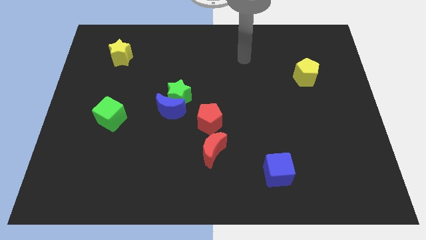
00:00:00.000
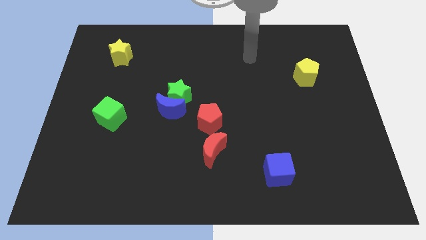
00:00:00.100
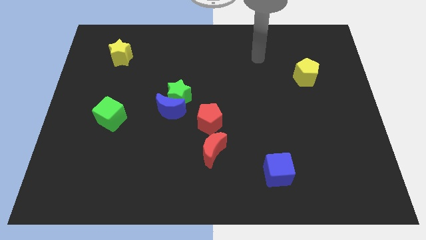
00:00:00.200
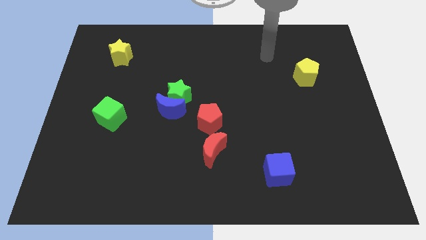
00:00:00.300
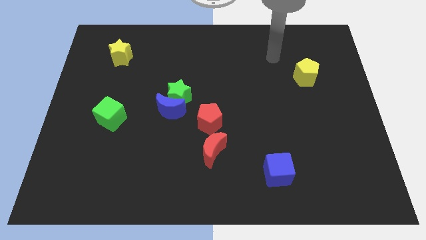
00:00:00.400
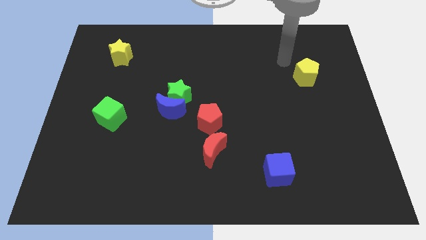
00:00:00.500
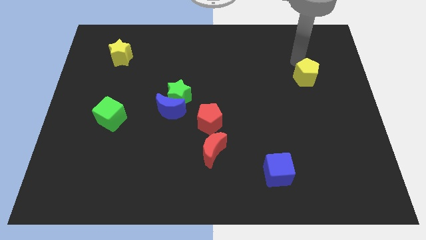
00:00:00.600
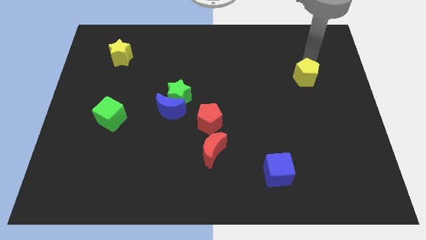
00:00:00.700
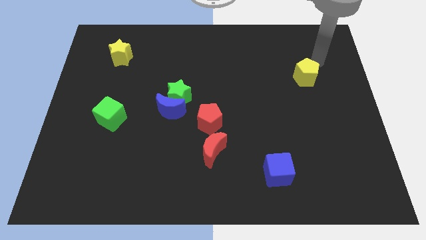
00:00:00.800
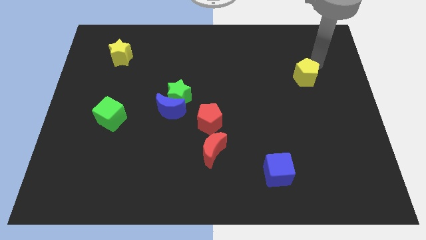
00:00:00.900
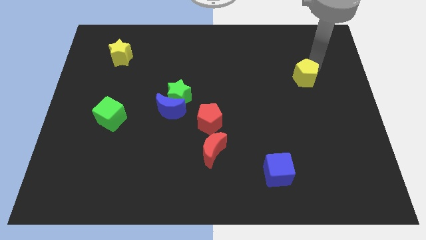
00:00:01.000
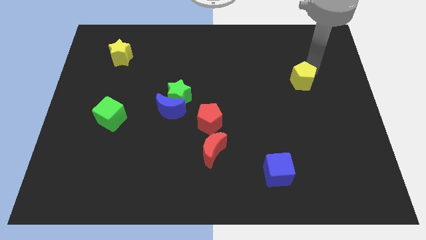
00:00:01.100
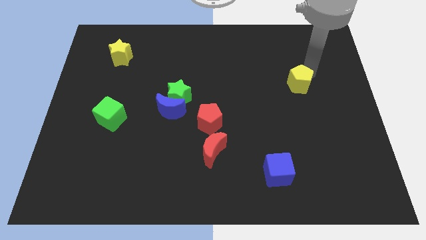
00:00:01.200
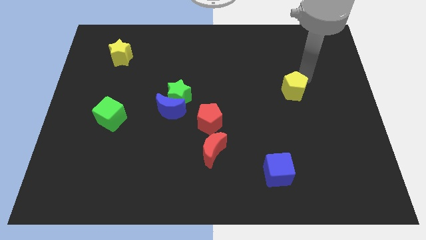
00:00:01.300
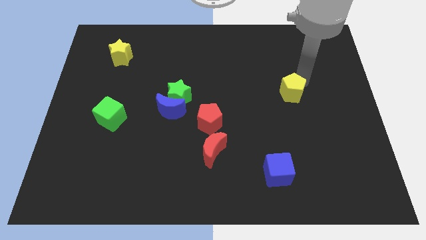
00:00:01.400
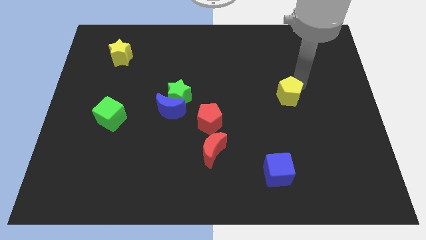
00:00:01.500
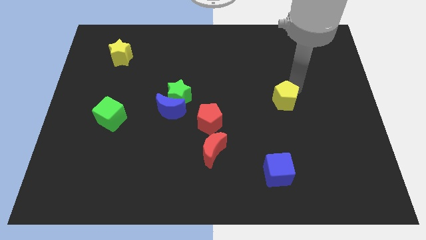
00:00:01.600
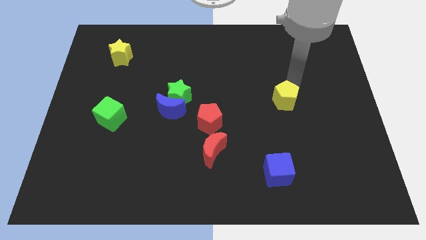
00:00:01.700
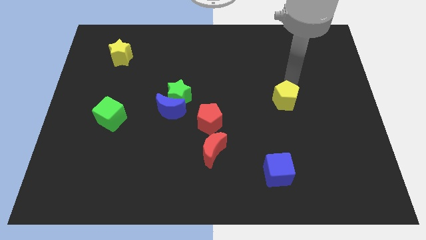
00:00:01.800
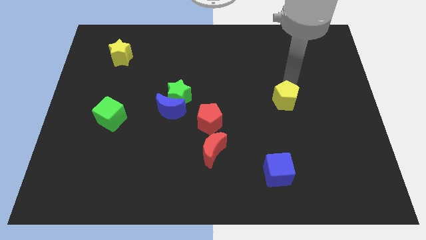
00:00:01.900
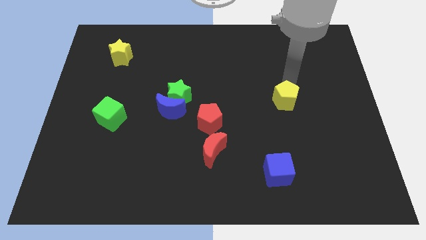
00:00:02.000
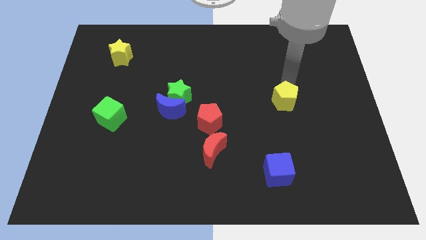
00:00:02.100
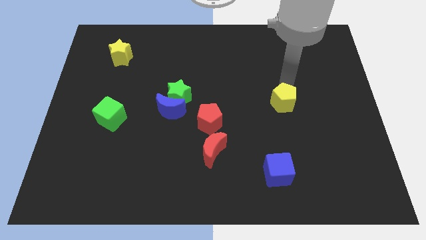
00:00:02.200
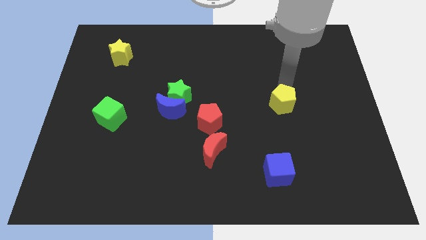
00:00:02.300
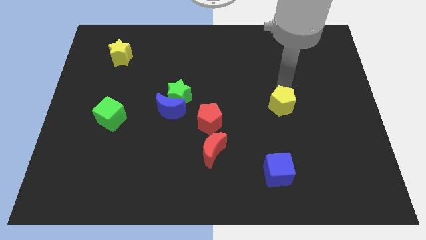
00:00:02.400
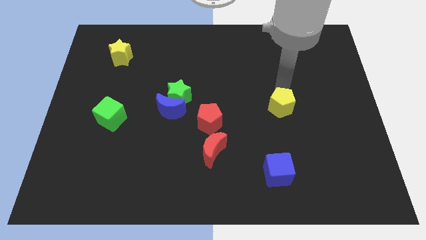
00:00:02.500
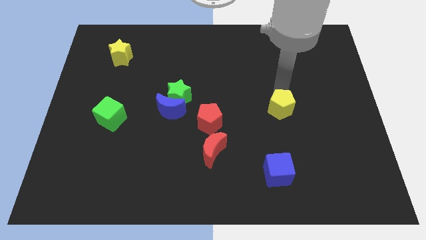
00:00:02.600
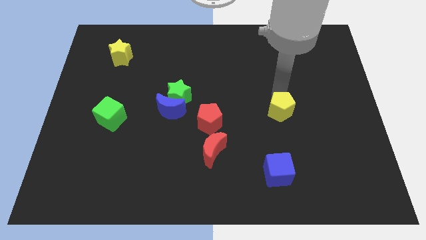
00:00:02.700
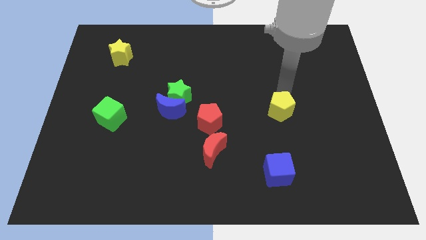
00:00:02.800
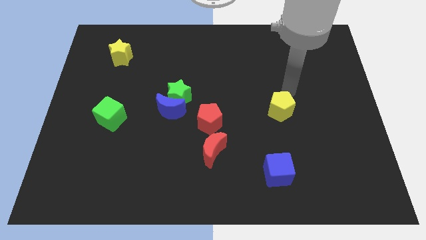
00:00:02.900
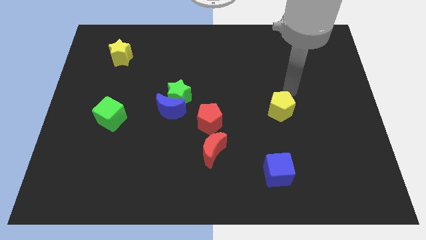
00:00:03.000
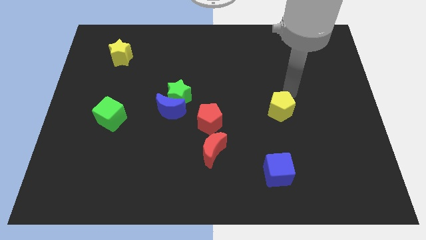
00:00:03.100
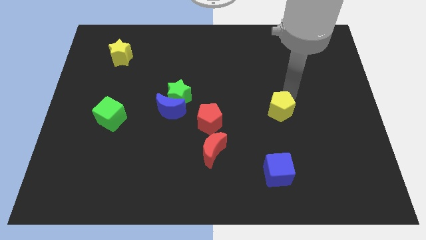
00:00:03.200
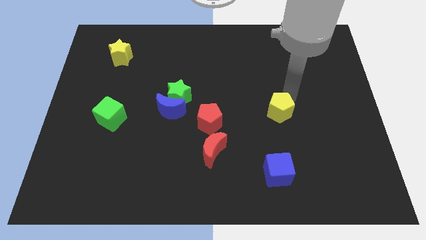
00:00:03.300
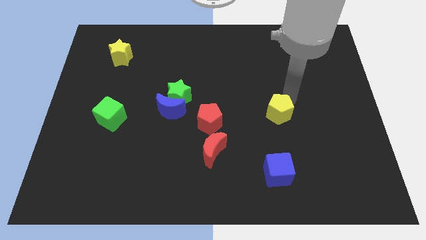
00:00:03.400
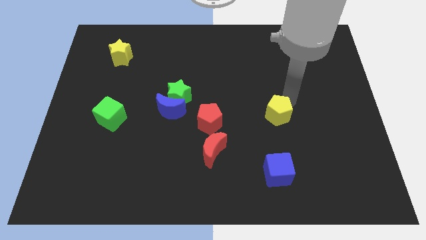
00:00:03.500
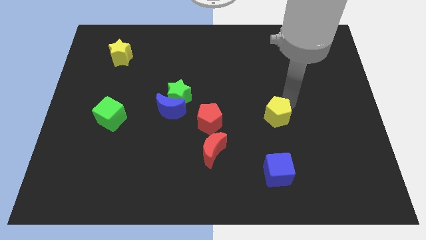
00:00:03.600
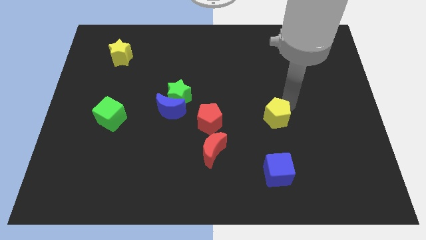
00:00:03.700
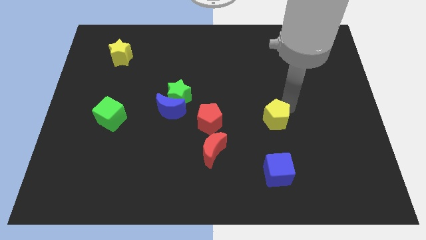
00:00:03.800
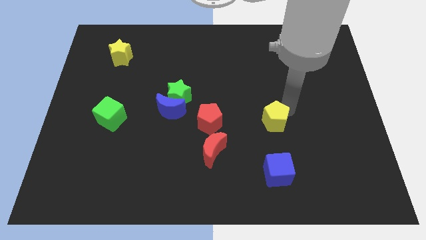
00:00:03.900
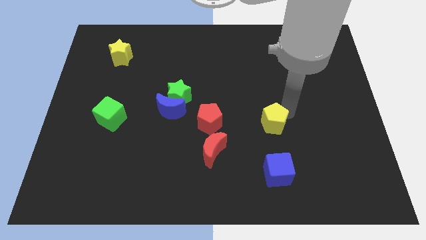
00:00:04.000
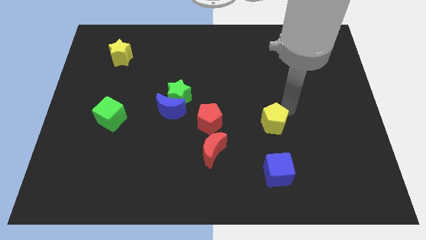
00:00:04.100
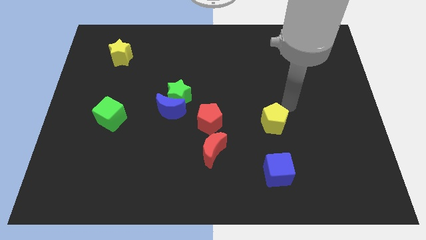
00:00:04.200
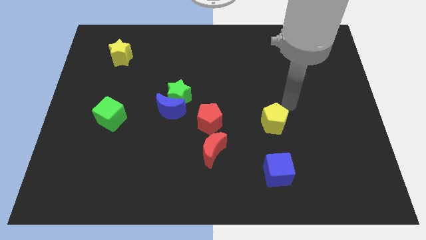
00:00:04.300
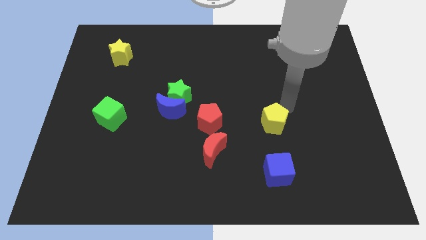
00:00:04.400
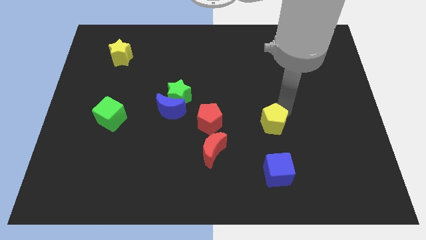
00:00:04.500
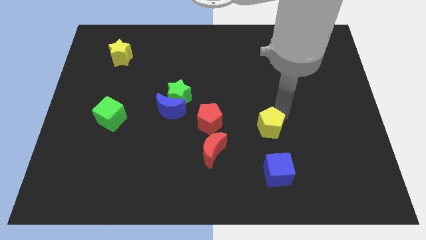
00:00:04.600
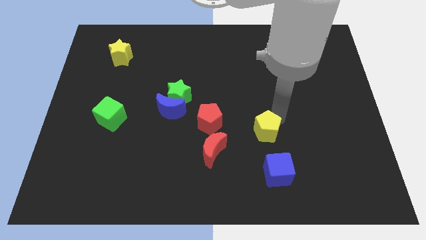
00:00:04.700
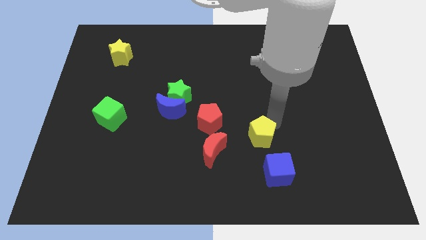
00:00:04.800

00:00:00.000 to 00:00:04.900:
push the yellow pentagon to the top left of the blue cube

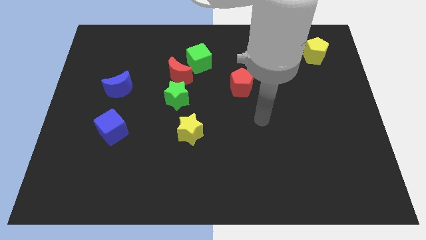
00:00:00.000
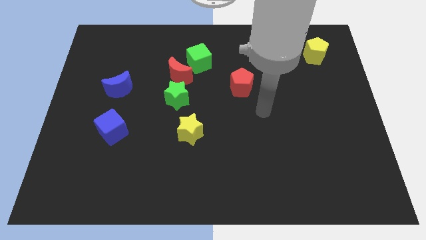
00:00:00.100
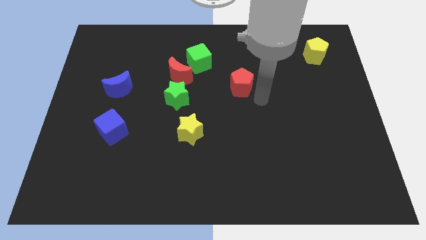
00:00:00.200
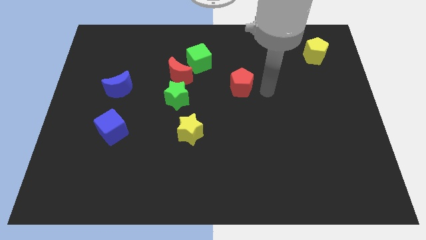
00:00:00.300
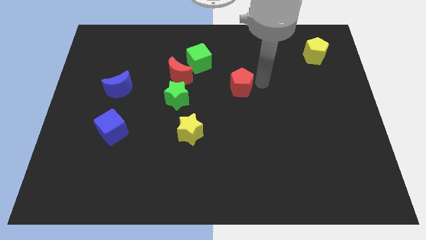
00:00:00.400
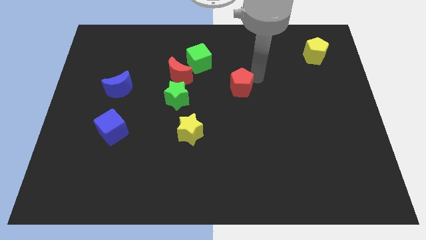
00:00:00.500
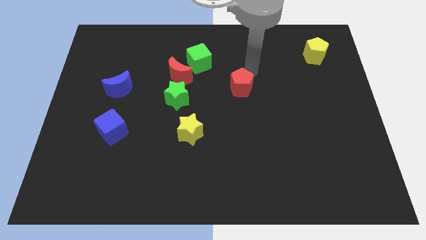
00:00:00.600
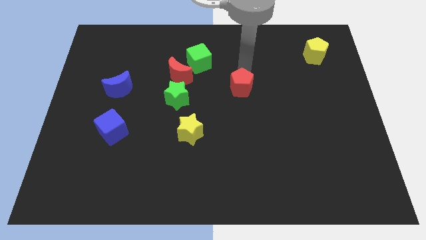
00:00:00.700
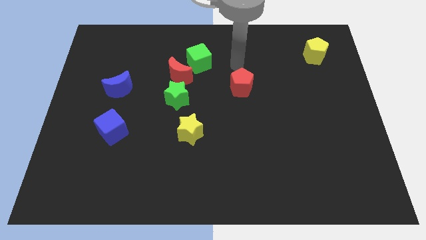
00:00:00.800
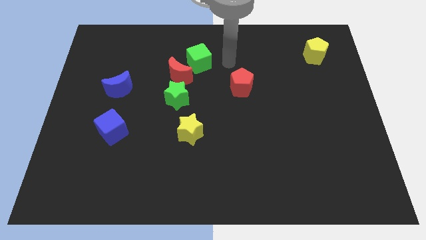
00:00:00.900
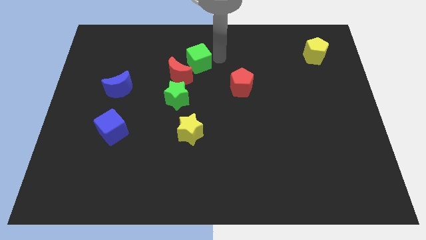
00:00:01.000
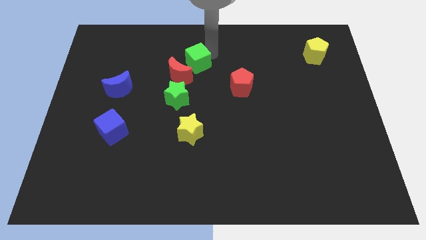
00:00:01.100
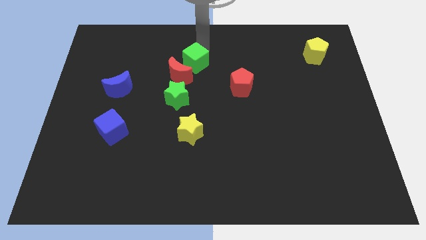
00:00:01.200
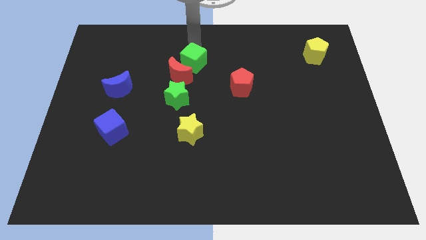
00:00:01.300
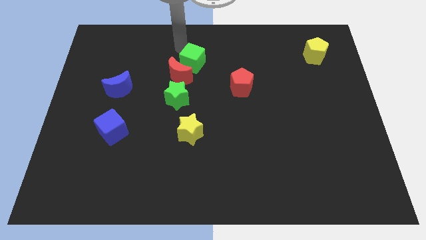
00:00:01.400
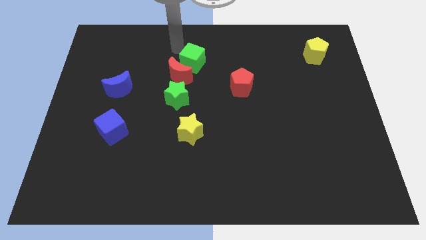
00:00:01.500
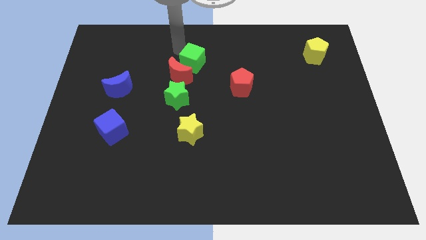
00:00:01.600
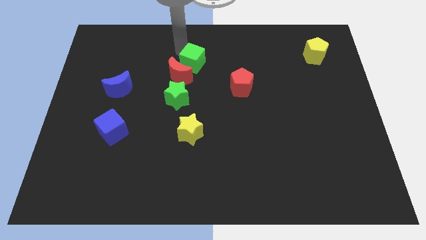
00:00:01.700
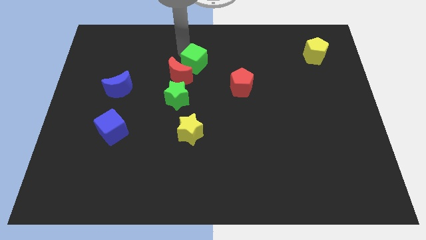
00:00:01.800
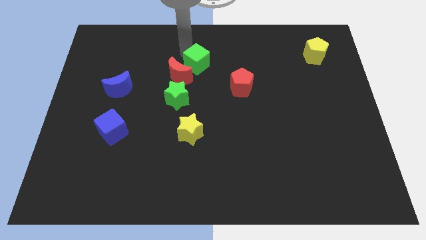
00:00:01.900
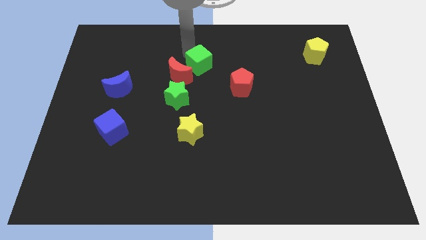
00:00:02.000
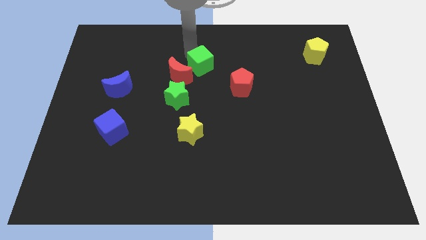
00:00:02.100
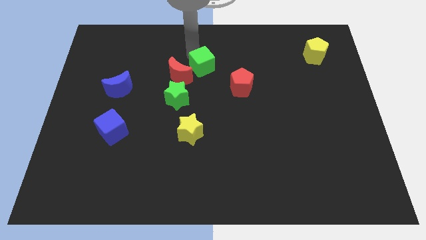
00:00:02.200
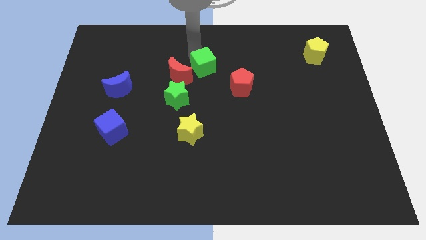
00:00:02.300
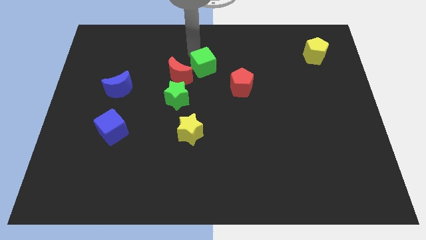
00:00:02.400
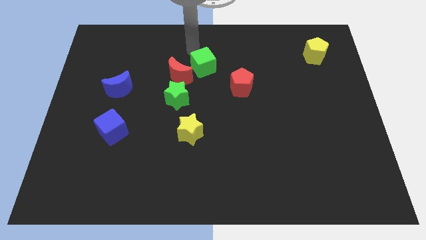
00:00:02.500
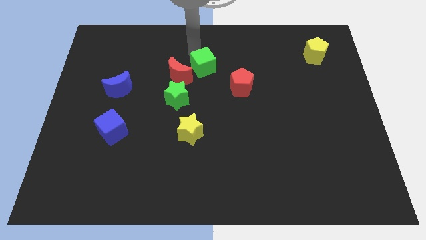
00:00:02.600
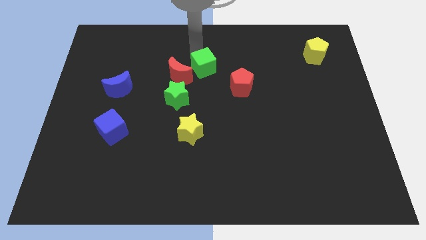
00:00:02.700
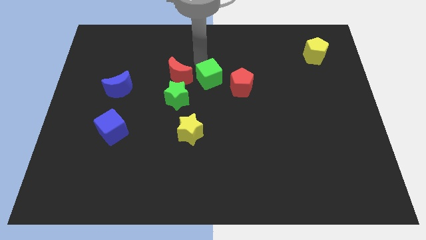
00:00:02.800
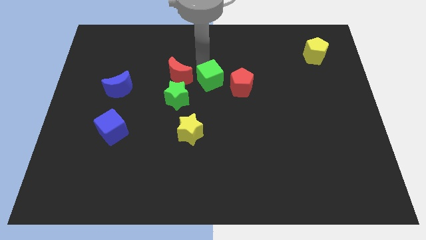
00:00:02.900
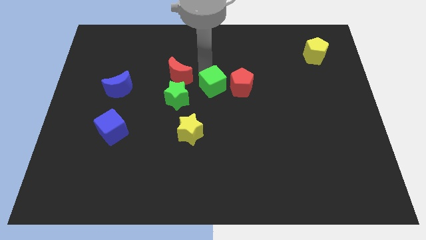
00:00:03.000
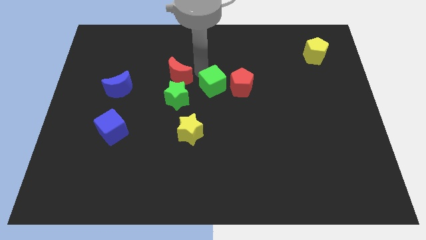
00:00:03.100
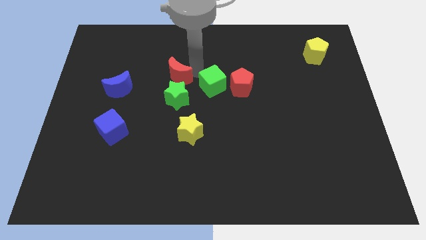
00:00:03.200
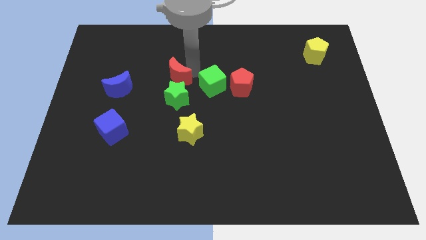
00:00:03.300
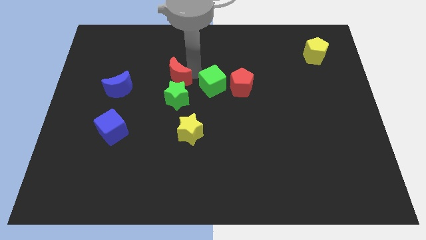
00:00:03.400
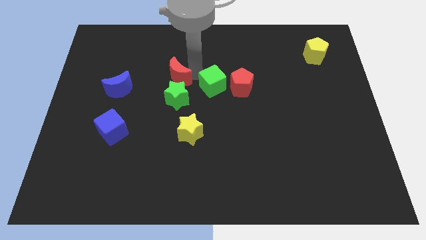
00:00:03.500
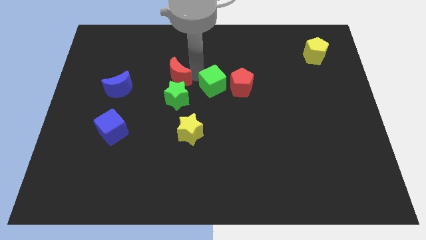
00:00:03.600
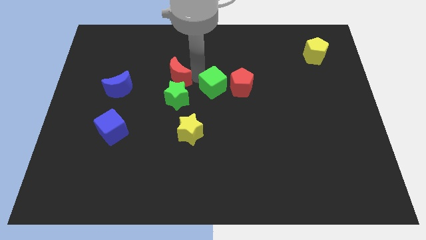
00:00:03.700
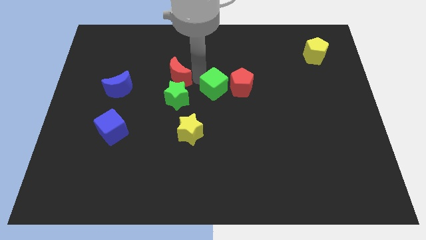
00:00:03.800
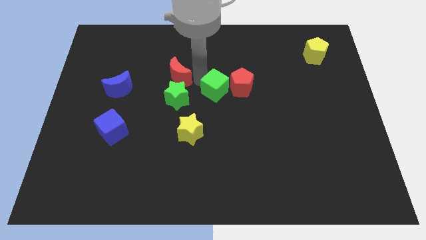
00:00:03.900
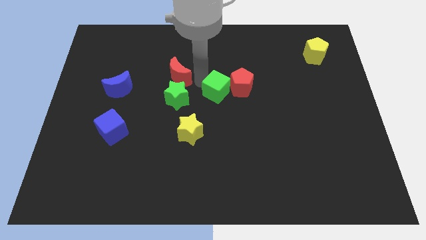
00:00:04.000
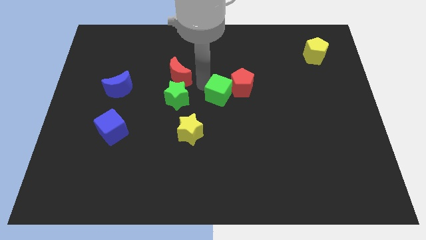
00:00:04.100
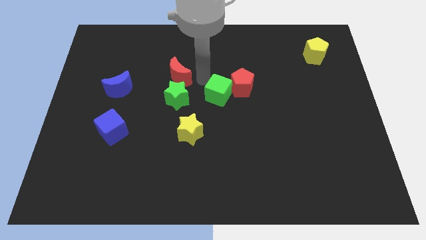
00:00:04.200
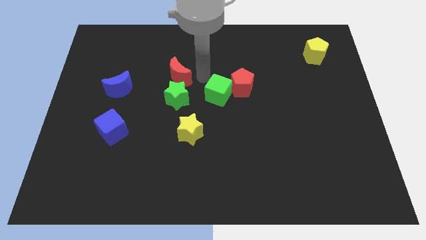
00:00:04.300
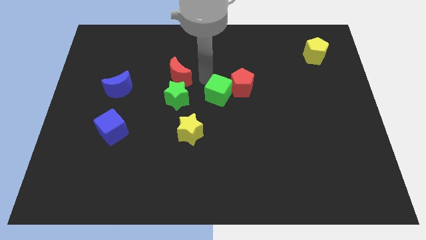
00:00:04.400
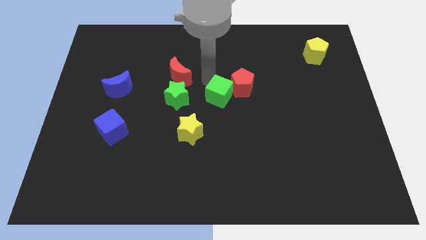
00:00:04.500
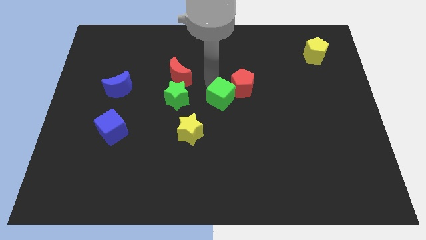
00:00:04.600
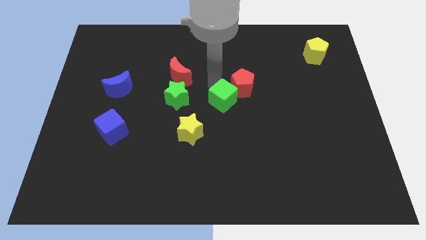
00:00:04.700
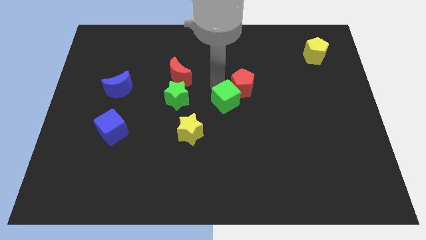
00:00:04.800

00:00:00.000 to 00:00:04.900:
push the green cube to the bottom of the red pentagon
